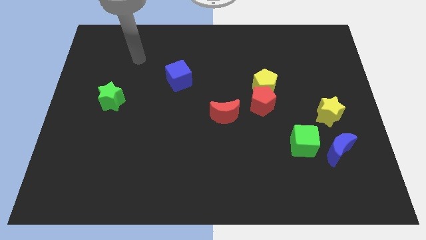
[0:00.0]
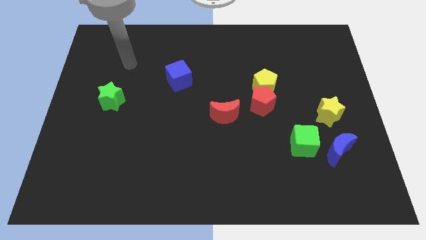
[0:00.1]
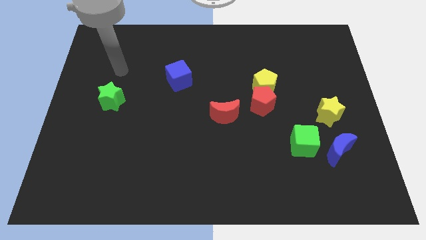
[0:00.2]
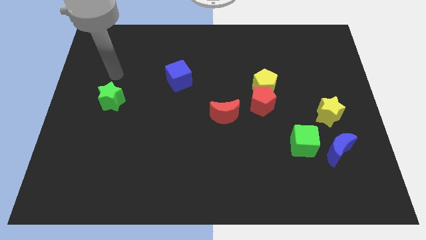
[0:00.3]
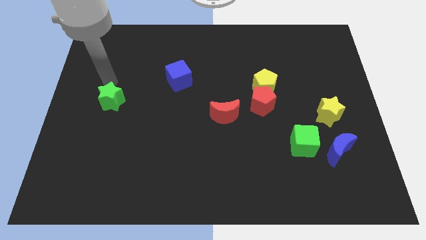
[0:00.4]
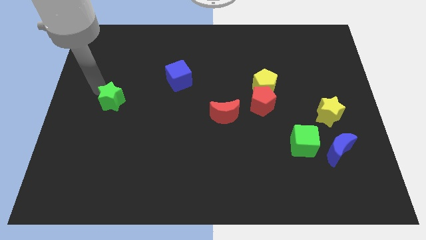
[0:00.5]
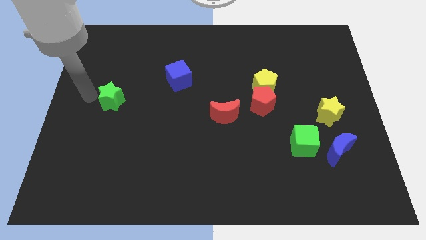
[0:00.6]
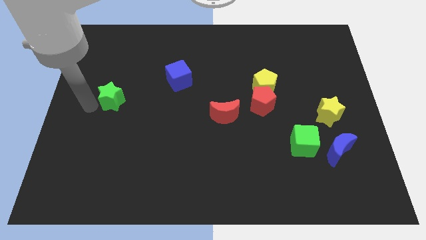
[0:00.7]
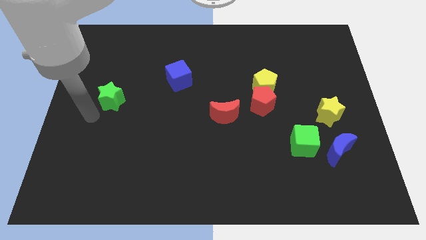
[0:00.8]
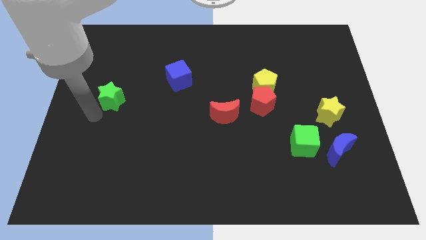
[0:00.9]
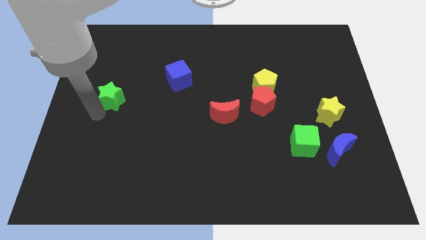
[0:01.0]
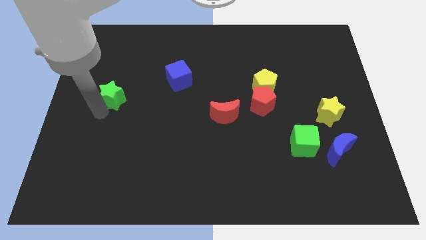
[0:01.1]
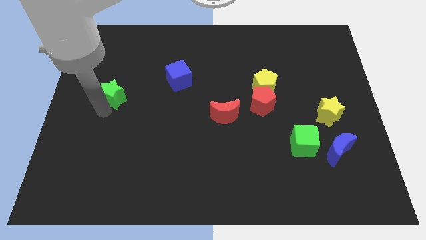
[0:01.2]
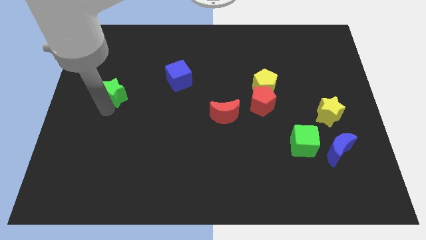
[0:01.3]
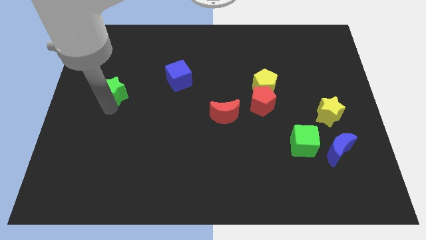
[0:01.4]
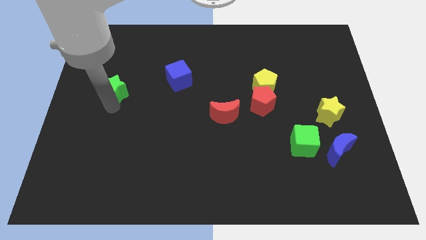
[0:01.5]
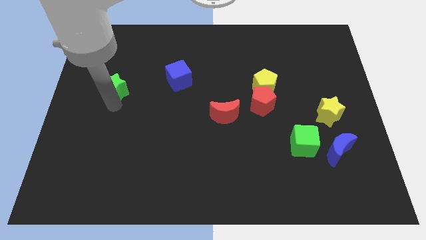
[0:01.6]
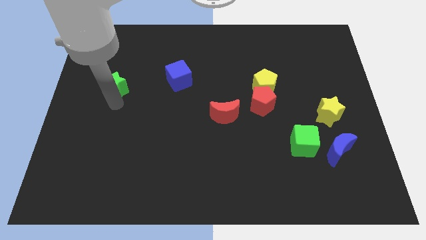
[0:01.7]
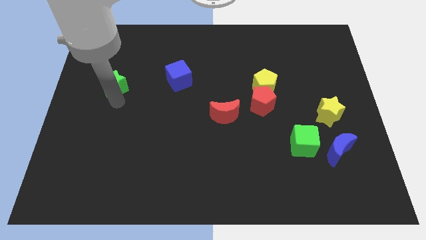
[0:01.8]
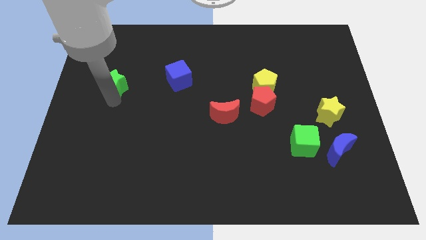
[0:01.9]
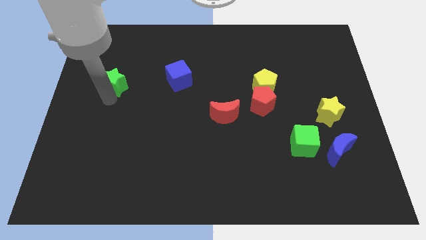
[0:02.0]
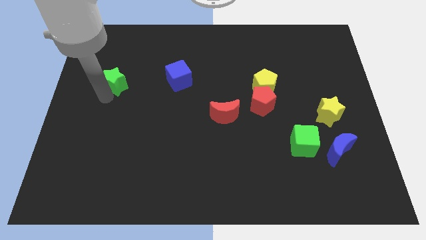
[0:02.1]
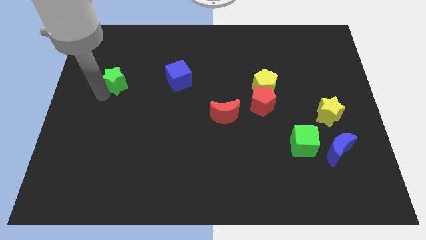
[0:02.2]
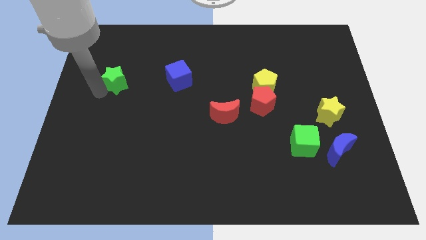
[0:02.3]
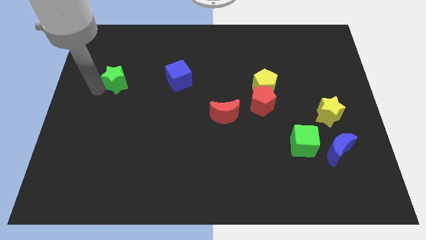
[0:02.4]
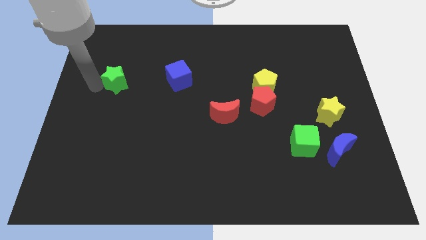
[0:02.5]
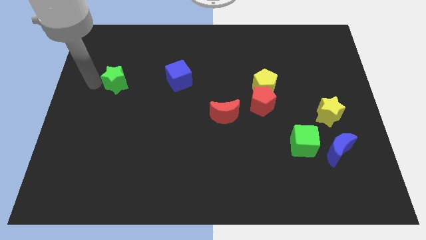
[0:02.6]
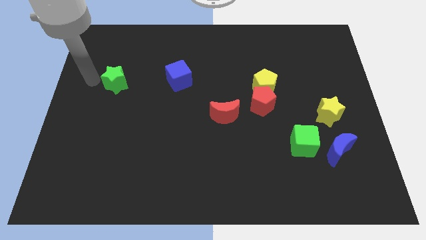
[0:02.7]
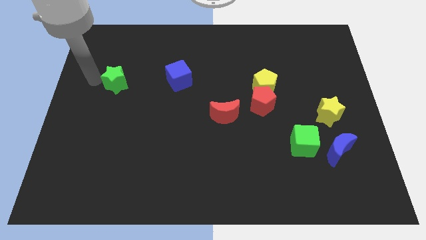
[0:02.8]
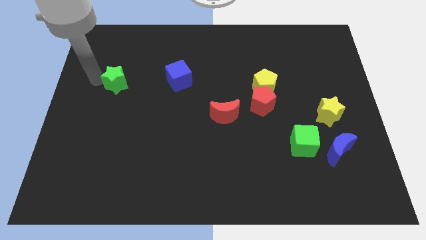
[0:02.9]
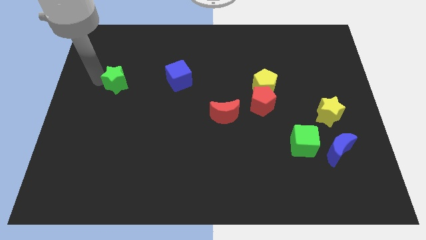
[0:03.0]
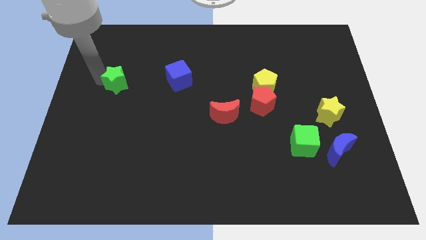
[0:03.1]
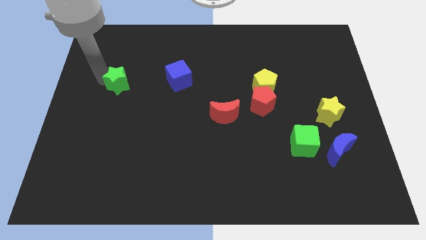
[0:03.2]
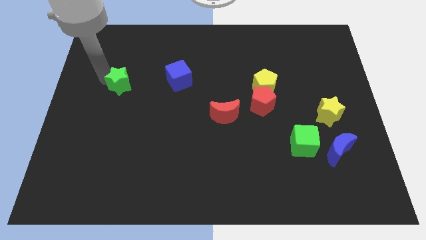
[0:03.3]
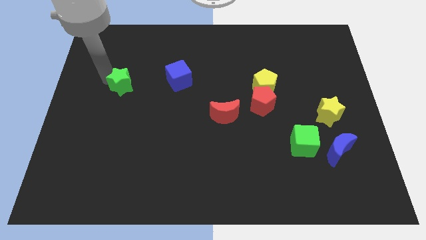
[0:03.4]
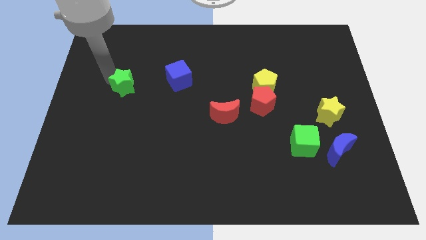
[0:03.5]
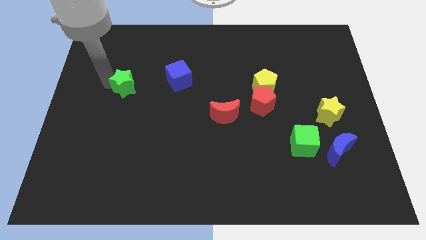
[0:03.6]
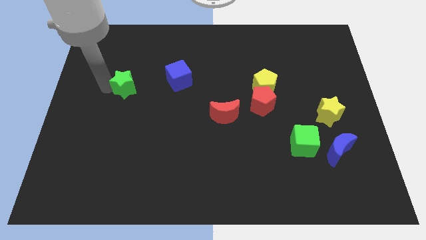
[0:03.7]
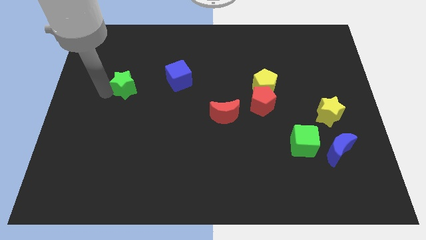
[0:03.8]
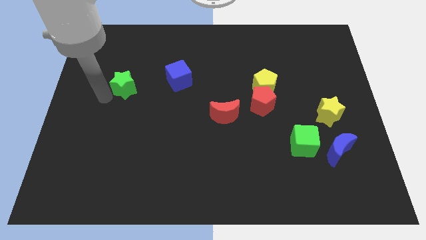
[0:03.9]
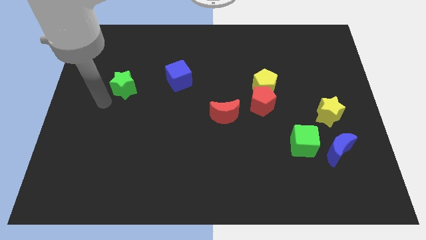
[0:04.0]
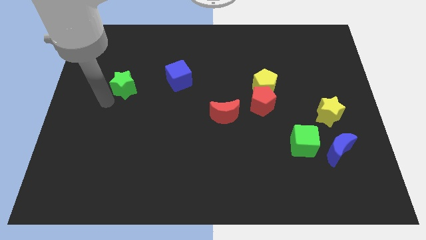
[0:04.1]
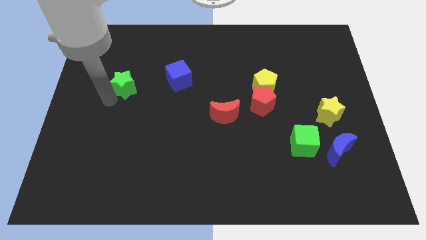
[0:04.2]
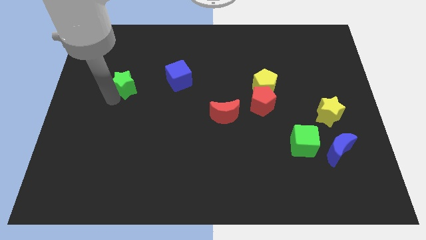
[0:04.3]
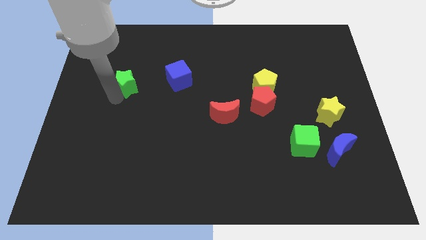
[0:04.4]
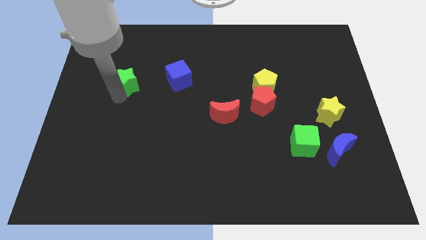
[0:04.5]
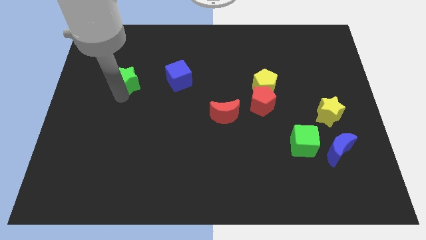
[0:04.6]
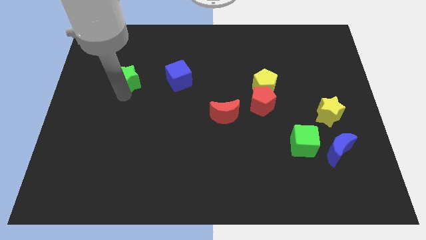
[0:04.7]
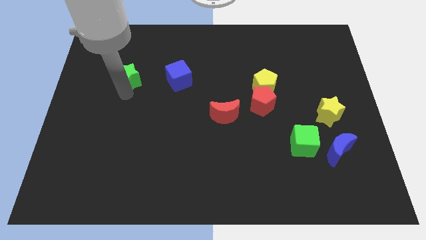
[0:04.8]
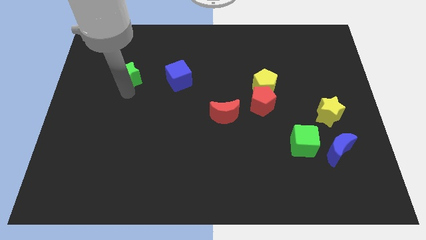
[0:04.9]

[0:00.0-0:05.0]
slide the green star up and to the right diagonally a little

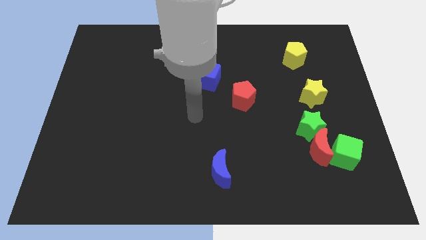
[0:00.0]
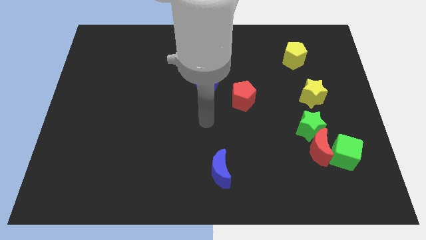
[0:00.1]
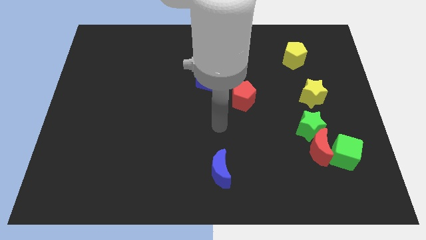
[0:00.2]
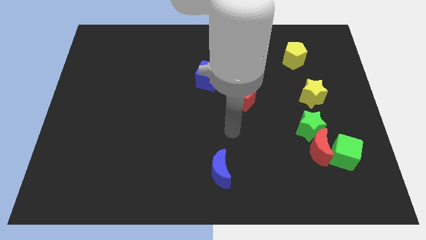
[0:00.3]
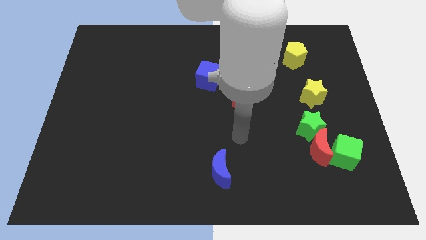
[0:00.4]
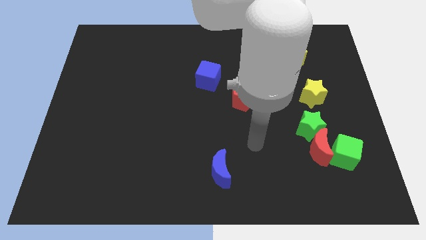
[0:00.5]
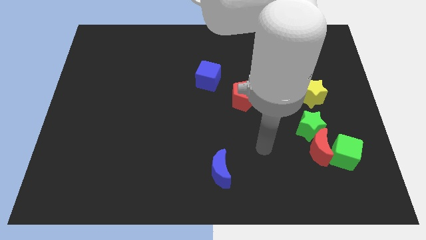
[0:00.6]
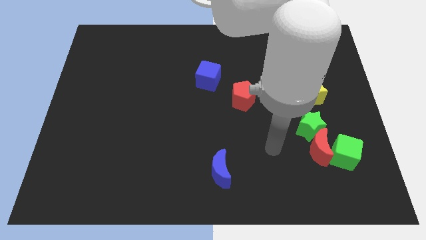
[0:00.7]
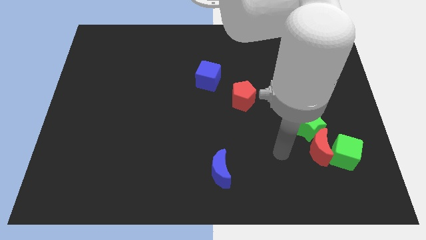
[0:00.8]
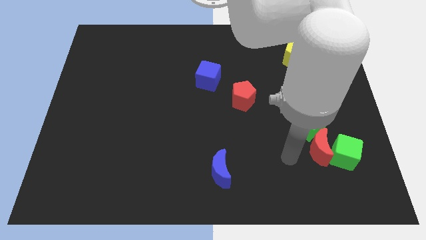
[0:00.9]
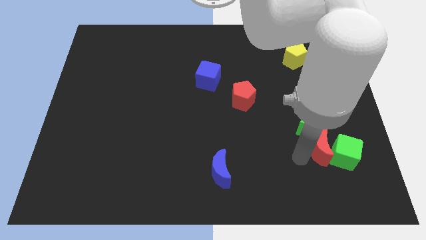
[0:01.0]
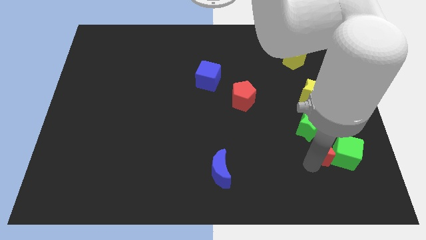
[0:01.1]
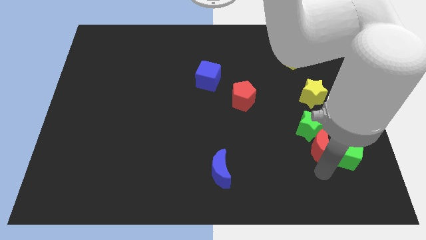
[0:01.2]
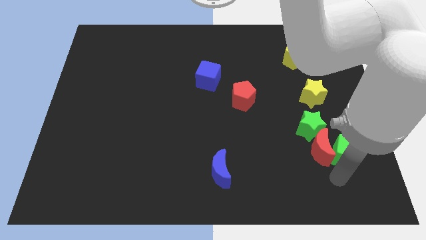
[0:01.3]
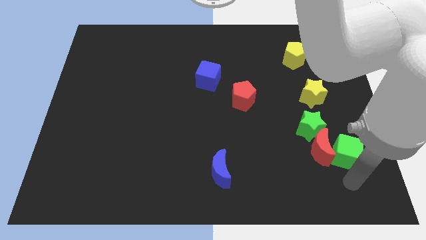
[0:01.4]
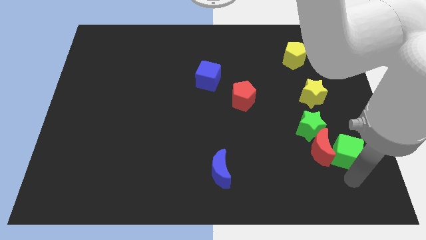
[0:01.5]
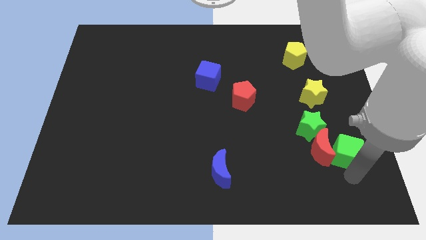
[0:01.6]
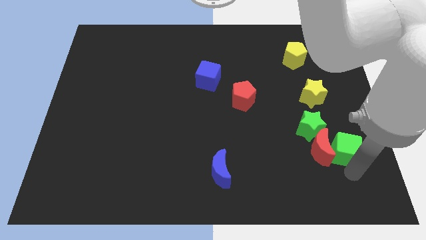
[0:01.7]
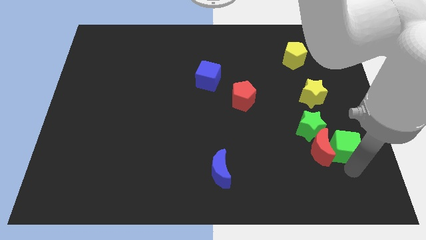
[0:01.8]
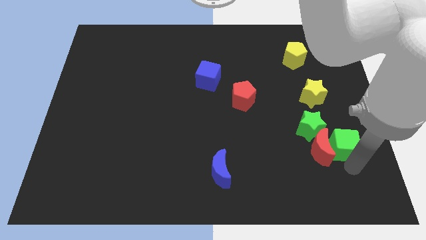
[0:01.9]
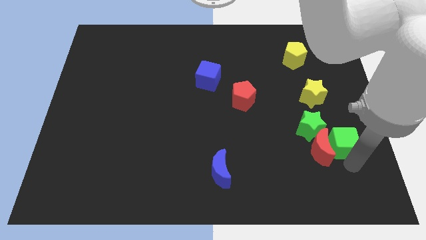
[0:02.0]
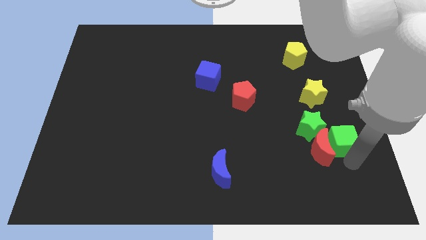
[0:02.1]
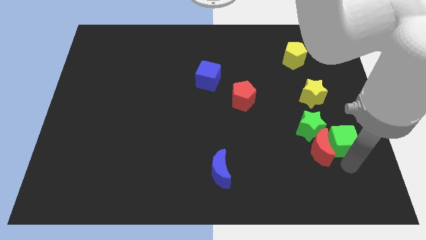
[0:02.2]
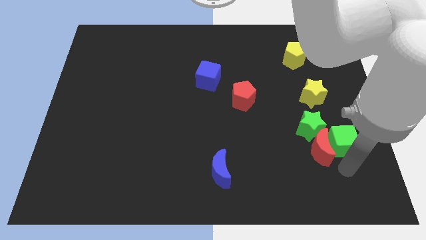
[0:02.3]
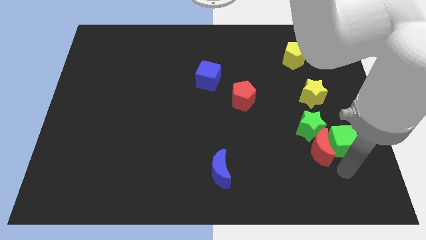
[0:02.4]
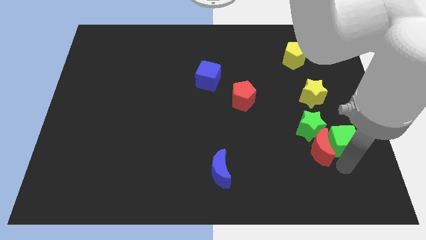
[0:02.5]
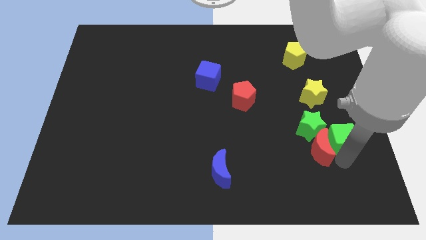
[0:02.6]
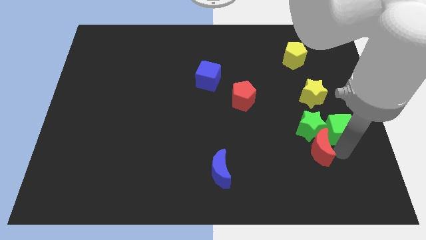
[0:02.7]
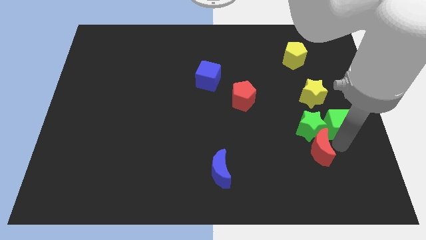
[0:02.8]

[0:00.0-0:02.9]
move the green cube slightly upwards

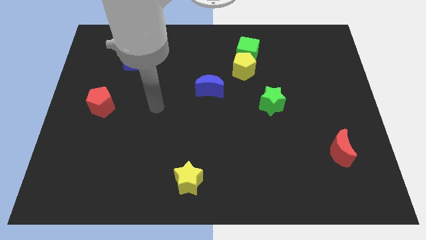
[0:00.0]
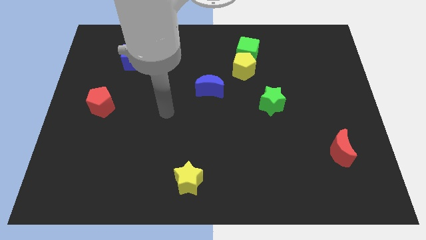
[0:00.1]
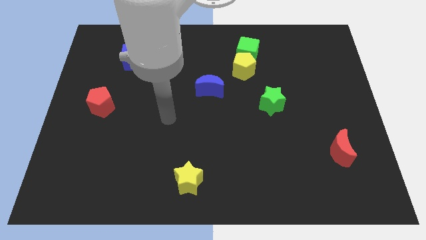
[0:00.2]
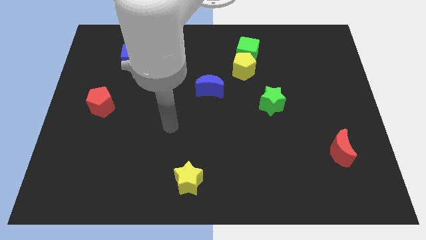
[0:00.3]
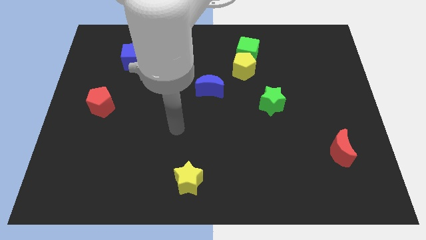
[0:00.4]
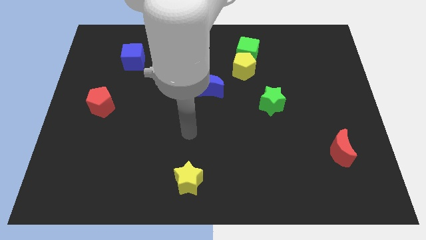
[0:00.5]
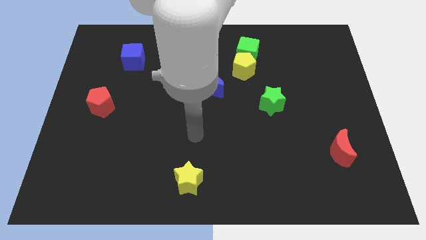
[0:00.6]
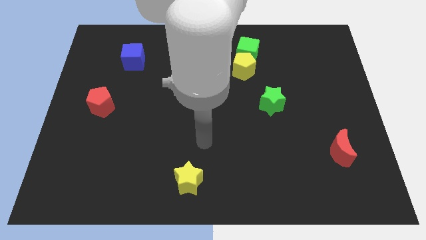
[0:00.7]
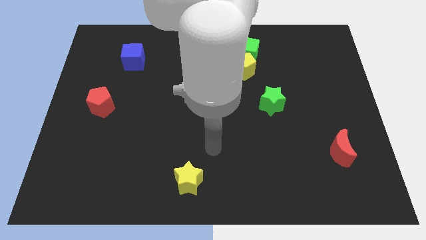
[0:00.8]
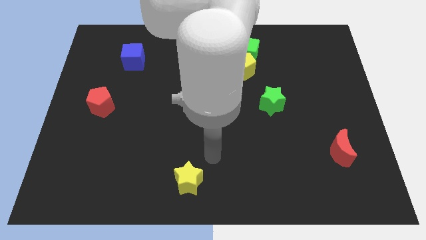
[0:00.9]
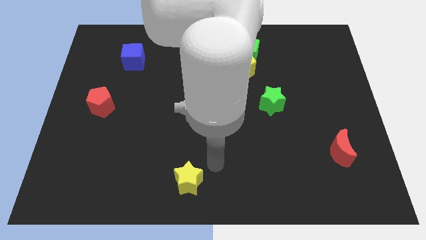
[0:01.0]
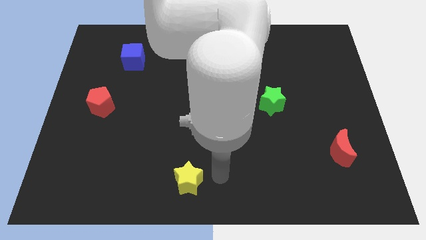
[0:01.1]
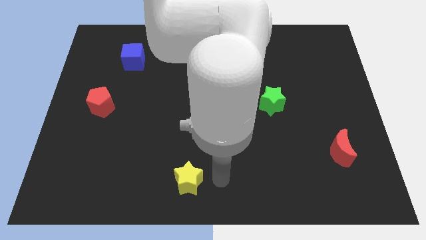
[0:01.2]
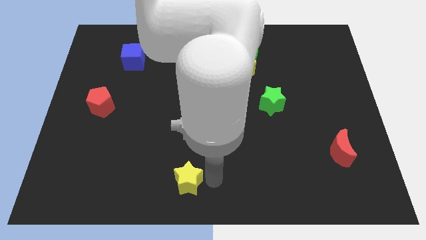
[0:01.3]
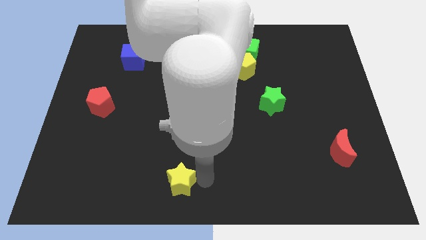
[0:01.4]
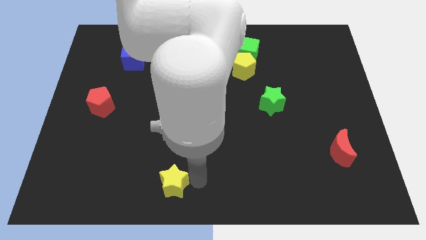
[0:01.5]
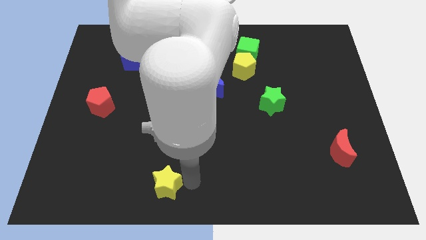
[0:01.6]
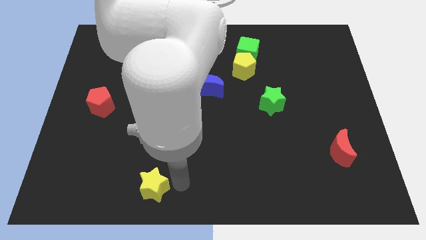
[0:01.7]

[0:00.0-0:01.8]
push the yellow star a little bit left
